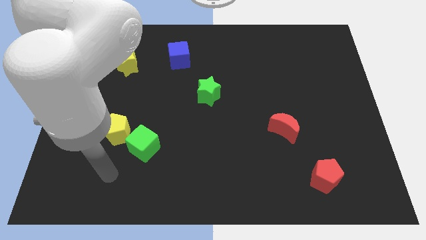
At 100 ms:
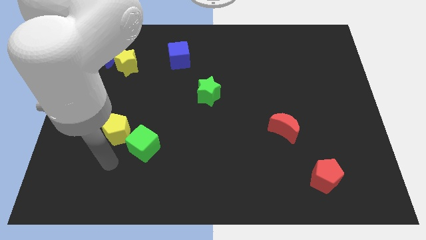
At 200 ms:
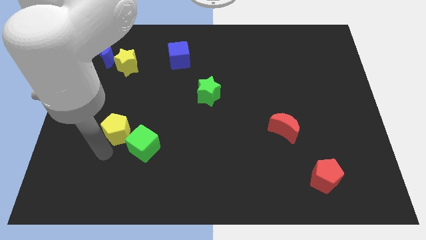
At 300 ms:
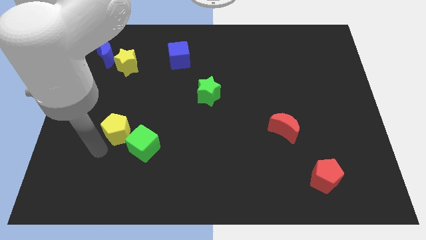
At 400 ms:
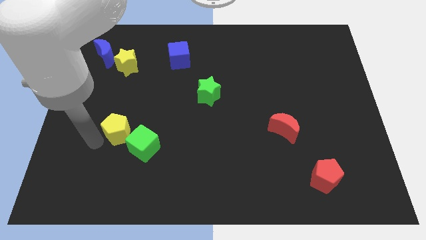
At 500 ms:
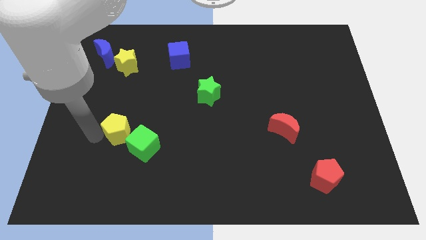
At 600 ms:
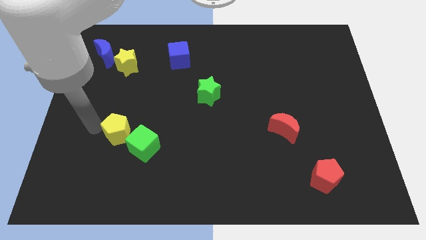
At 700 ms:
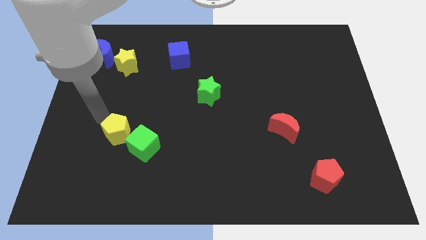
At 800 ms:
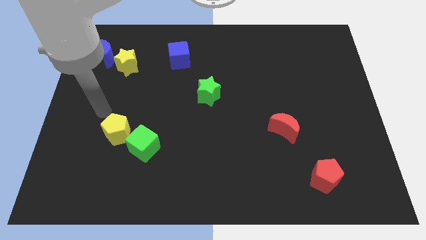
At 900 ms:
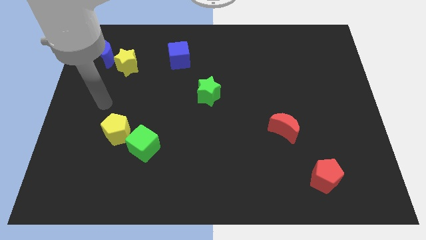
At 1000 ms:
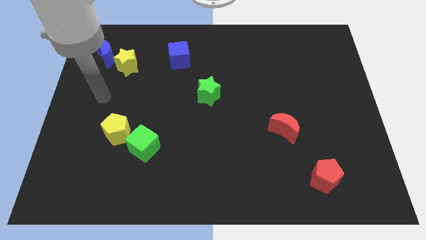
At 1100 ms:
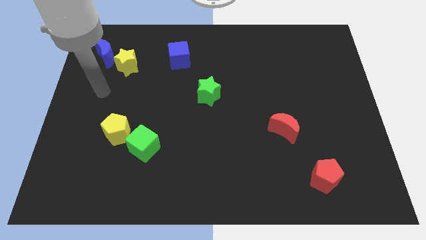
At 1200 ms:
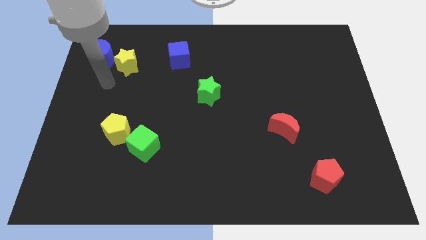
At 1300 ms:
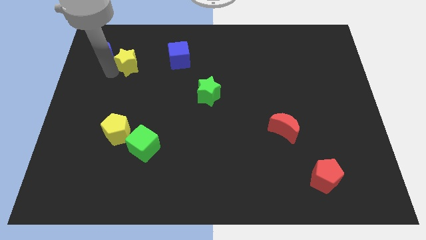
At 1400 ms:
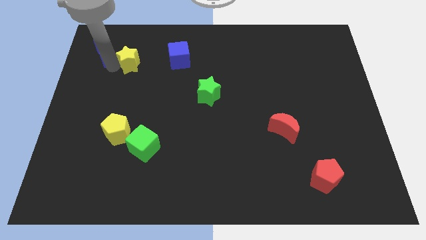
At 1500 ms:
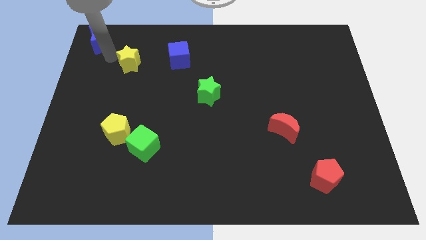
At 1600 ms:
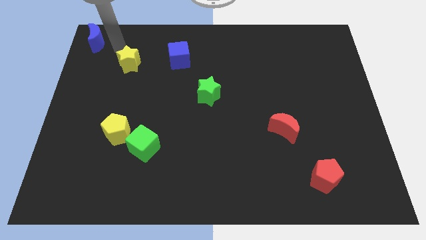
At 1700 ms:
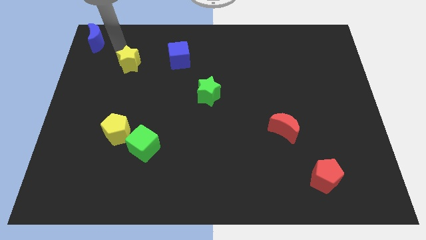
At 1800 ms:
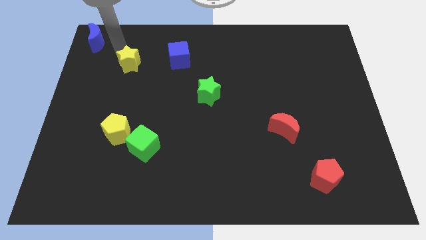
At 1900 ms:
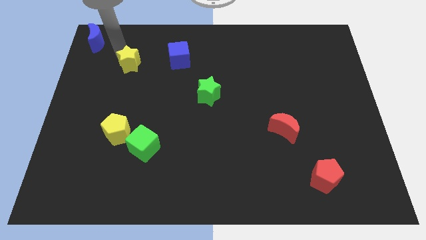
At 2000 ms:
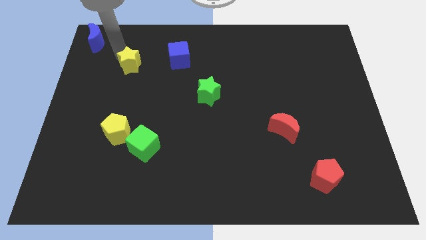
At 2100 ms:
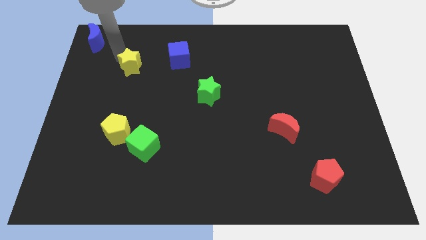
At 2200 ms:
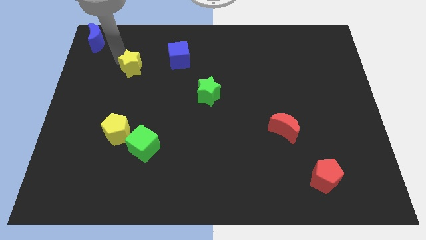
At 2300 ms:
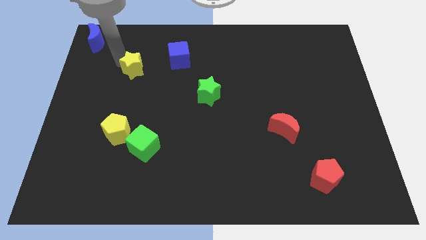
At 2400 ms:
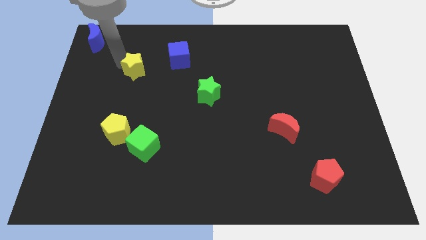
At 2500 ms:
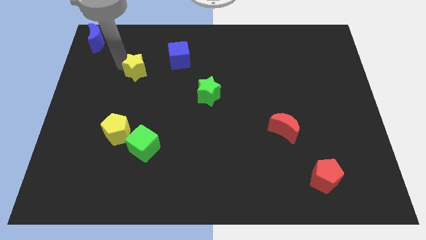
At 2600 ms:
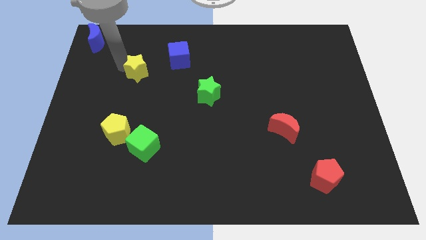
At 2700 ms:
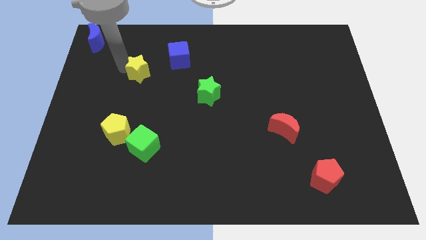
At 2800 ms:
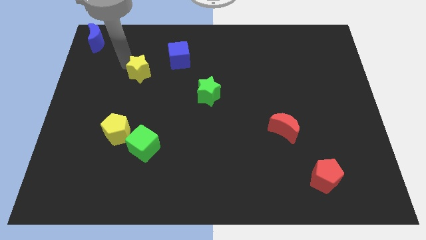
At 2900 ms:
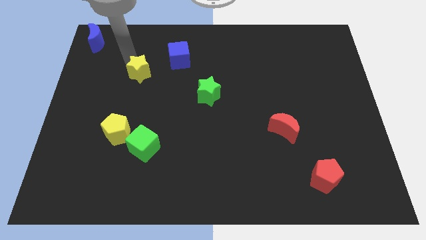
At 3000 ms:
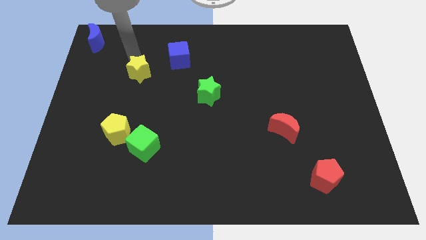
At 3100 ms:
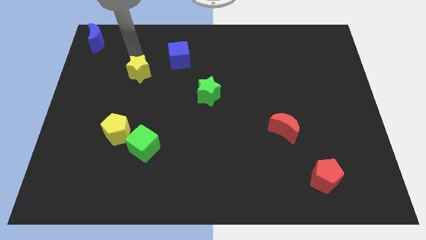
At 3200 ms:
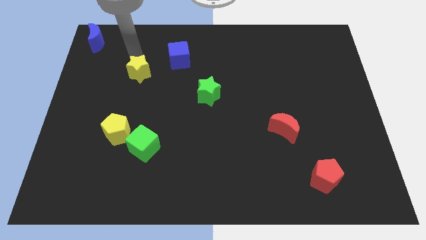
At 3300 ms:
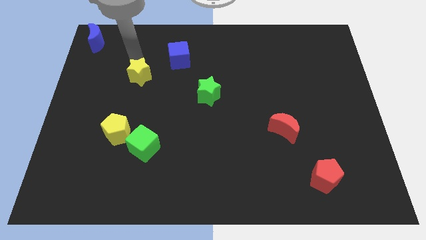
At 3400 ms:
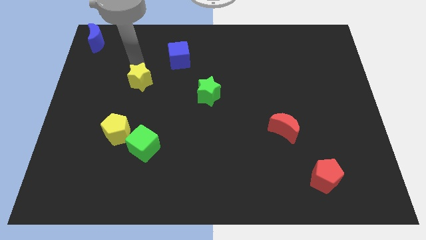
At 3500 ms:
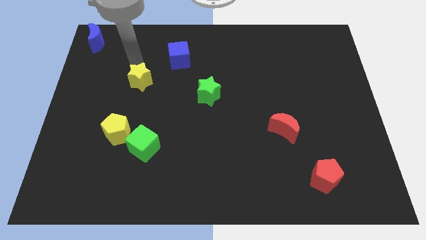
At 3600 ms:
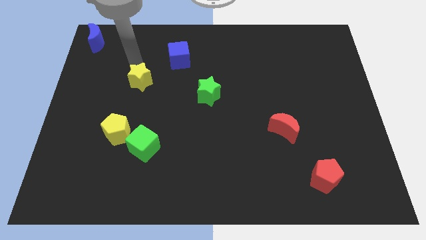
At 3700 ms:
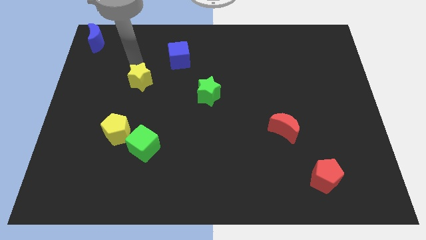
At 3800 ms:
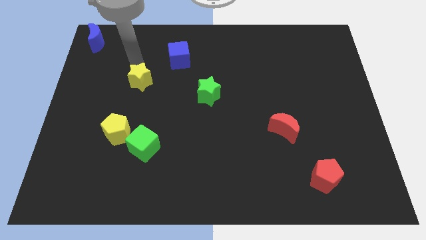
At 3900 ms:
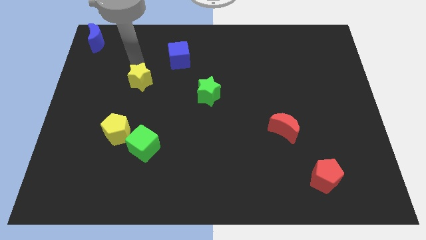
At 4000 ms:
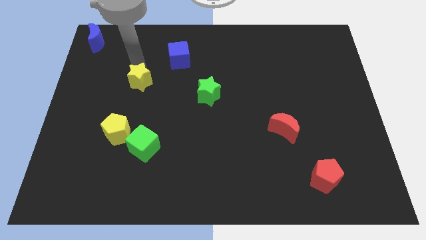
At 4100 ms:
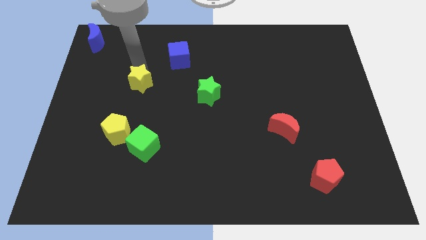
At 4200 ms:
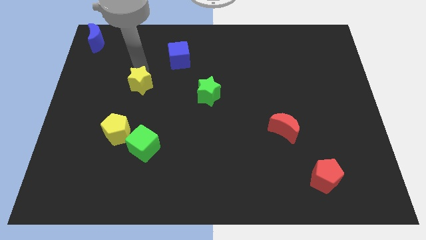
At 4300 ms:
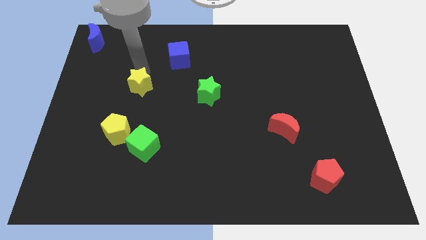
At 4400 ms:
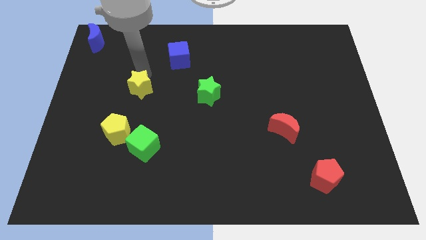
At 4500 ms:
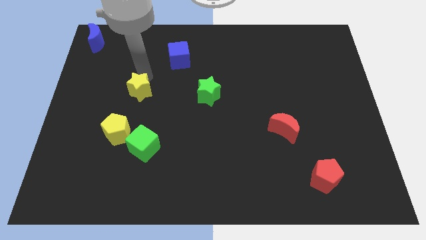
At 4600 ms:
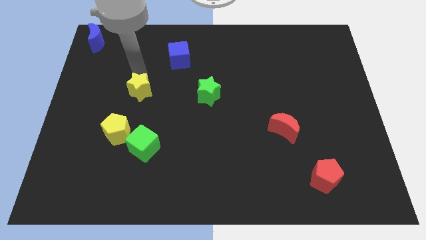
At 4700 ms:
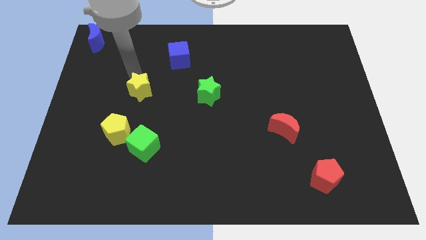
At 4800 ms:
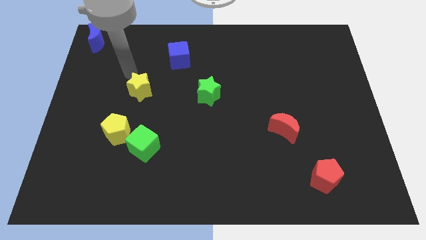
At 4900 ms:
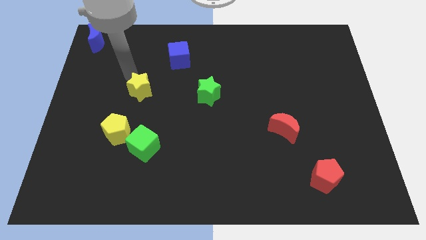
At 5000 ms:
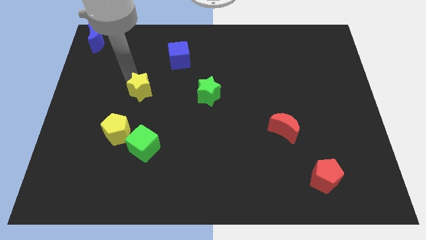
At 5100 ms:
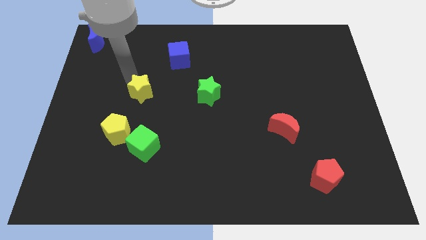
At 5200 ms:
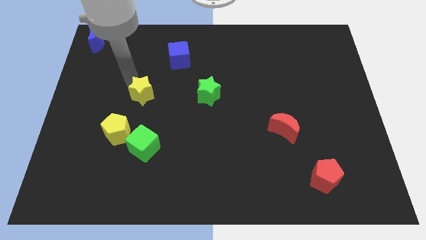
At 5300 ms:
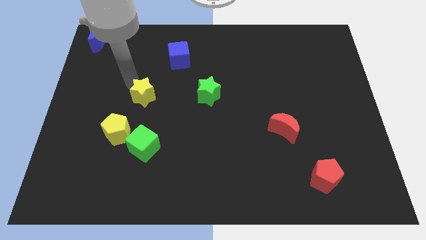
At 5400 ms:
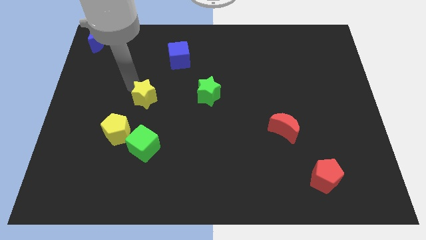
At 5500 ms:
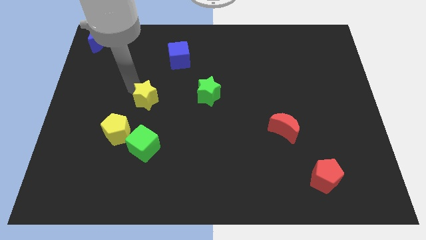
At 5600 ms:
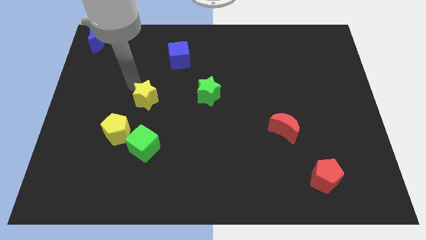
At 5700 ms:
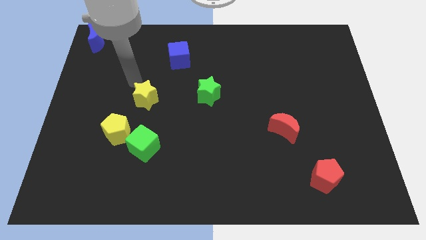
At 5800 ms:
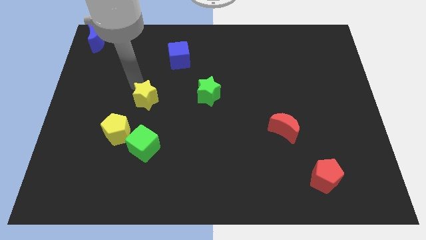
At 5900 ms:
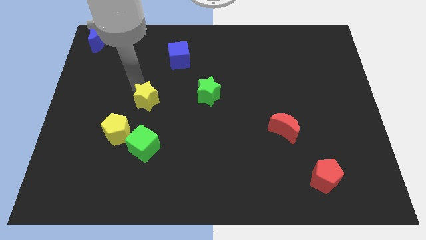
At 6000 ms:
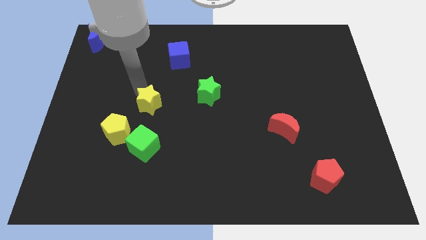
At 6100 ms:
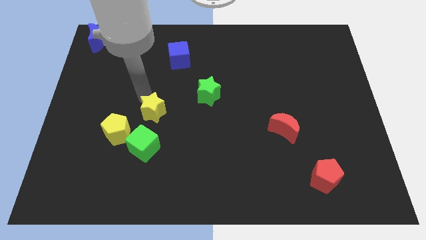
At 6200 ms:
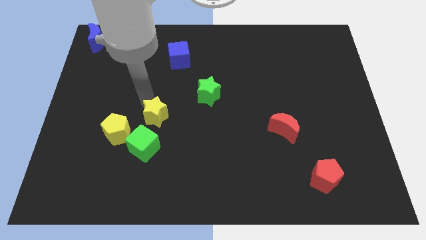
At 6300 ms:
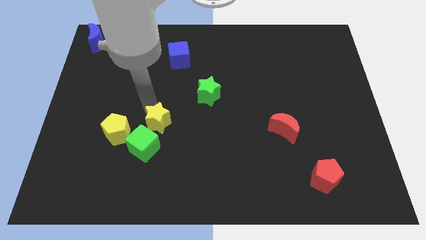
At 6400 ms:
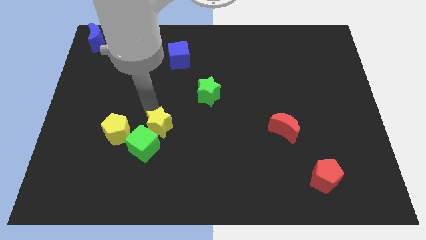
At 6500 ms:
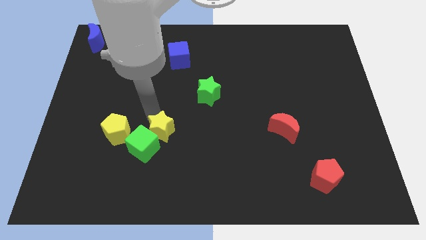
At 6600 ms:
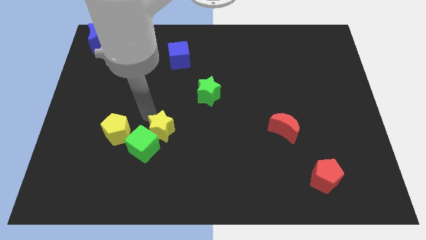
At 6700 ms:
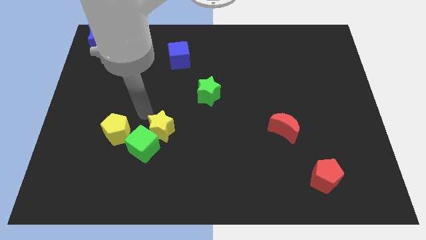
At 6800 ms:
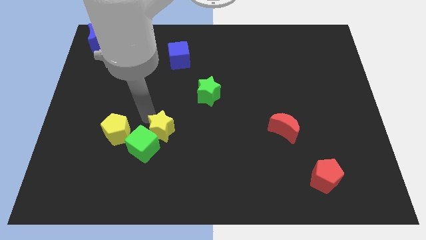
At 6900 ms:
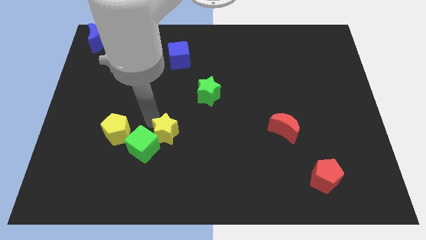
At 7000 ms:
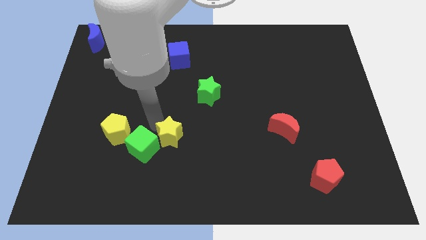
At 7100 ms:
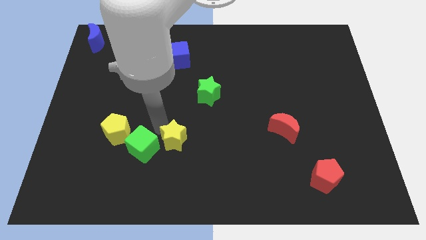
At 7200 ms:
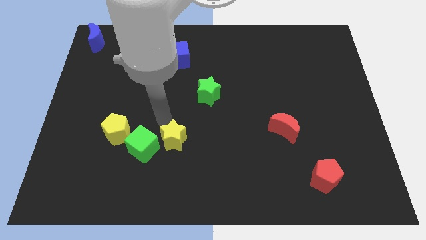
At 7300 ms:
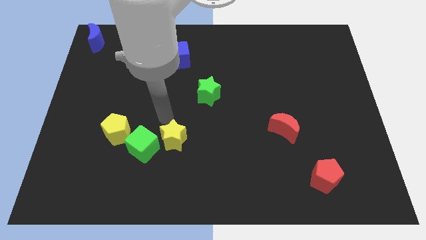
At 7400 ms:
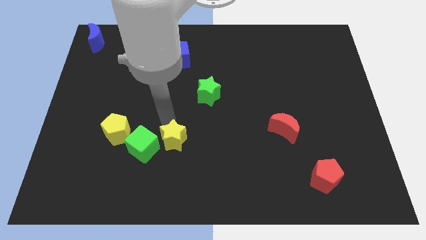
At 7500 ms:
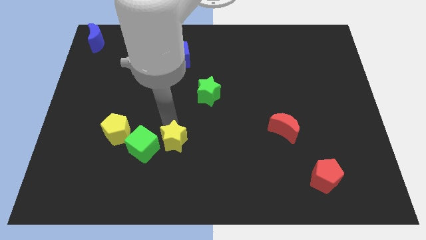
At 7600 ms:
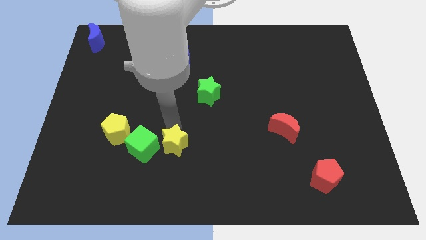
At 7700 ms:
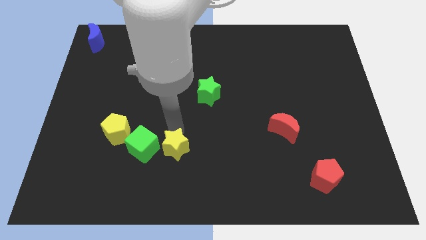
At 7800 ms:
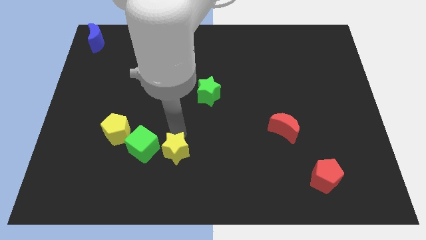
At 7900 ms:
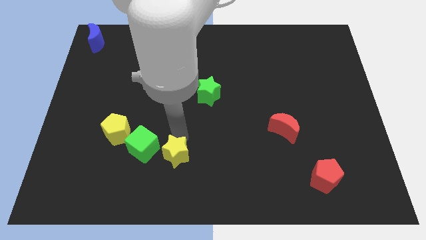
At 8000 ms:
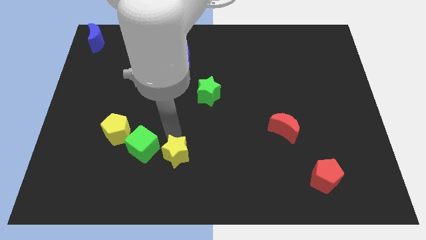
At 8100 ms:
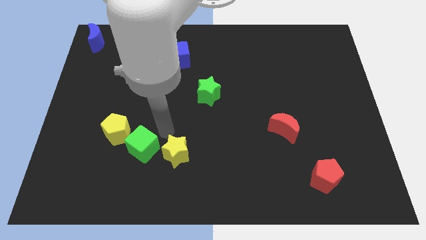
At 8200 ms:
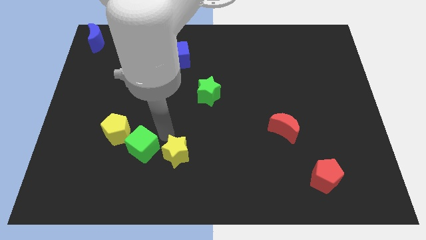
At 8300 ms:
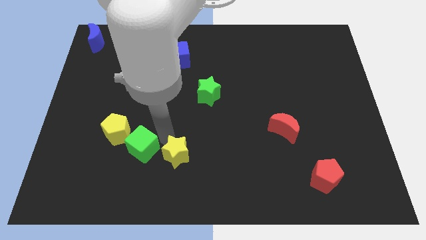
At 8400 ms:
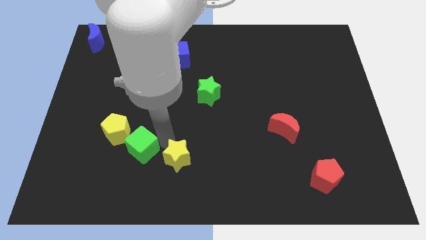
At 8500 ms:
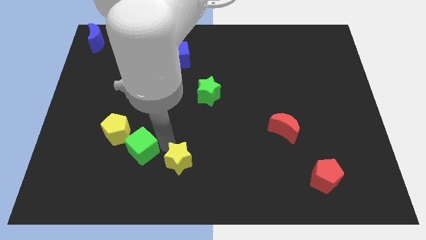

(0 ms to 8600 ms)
put the yellow star to the bottom side
